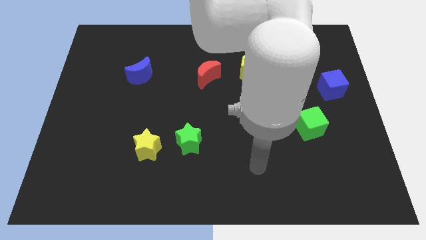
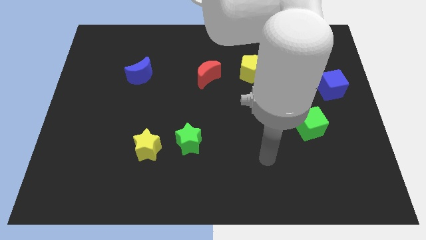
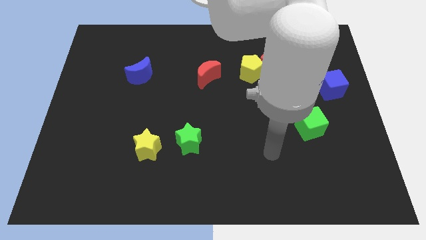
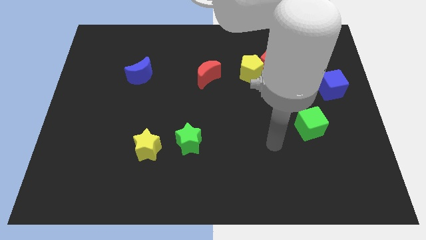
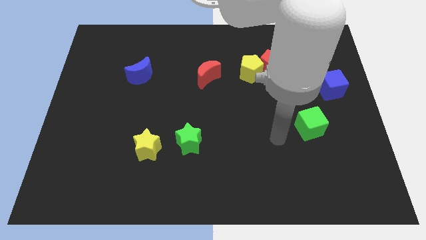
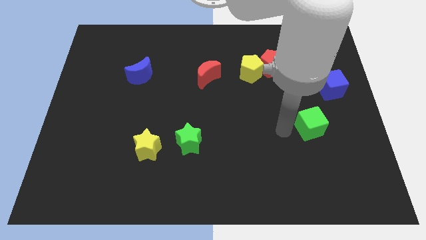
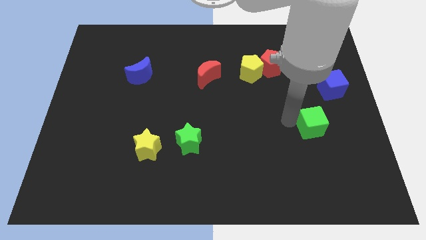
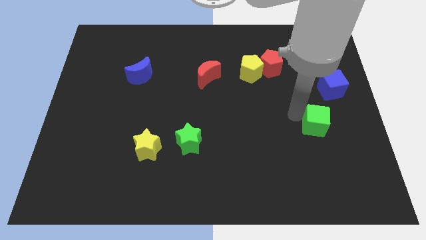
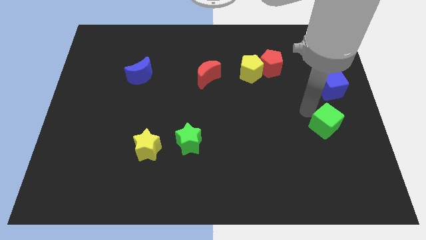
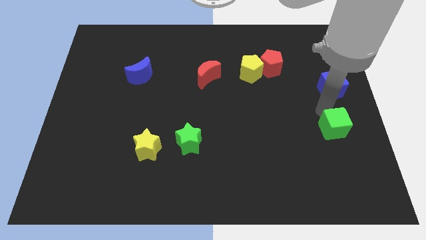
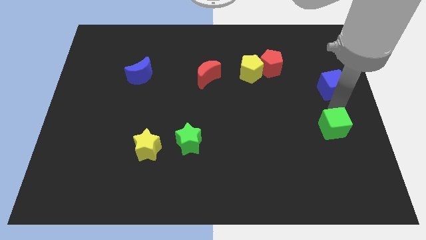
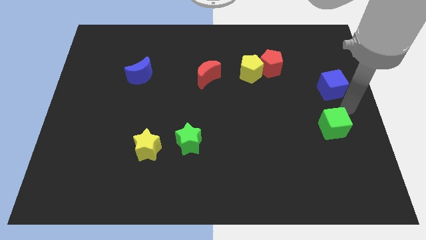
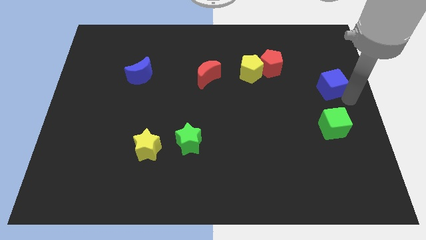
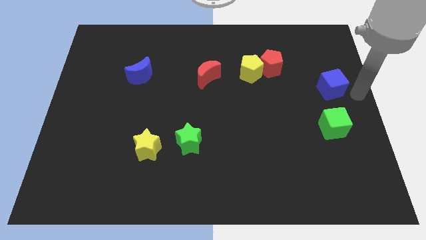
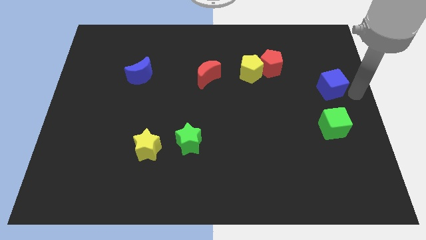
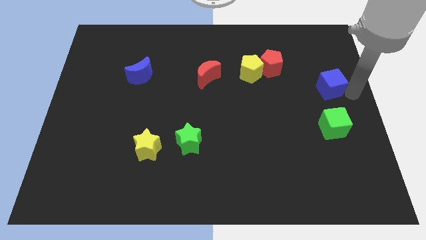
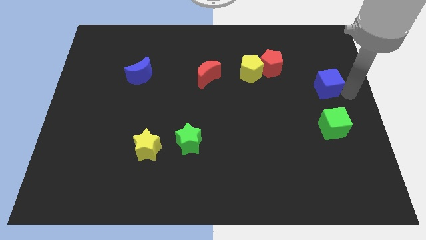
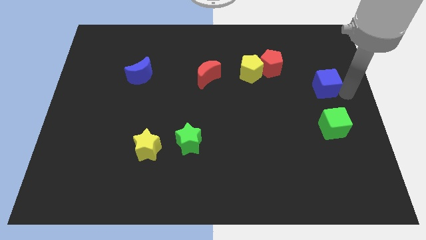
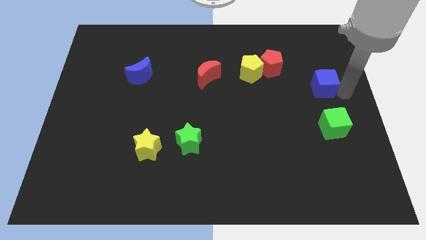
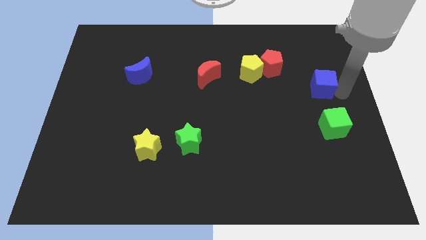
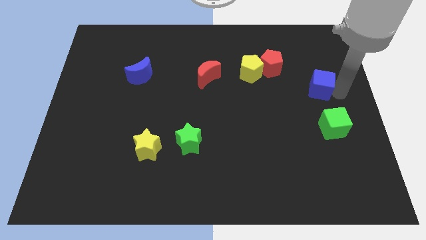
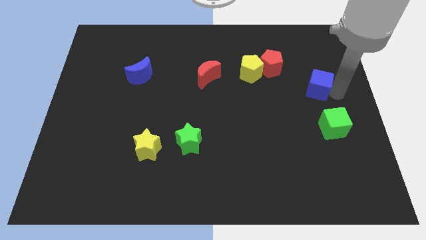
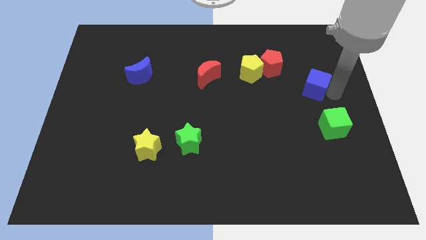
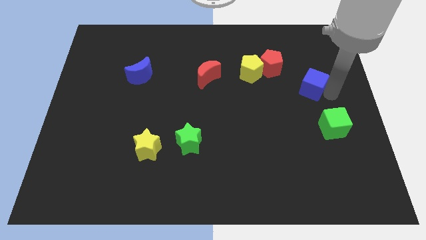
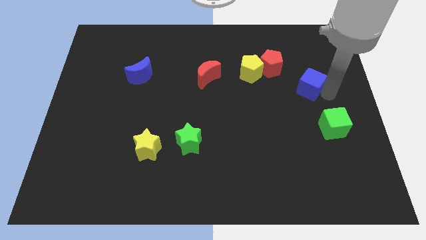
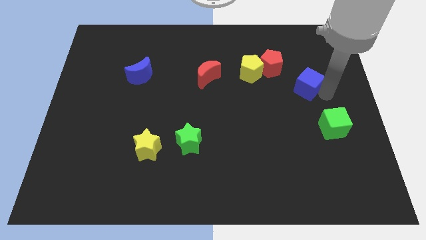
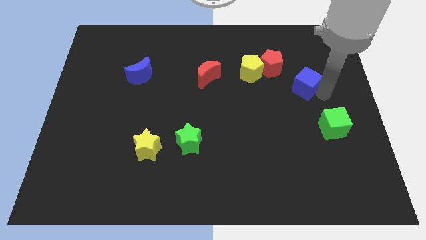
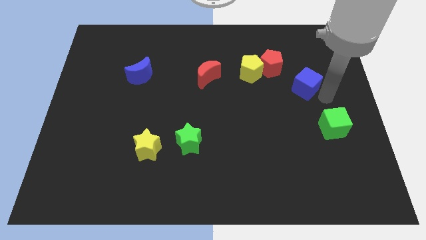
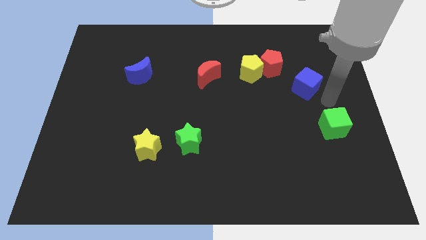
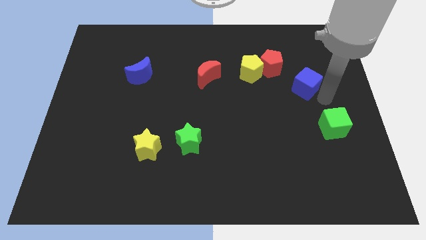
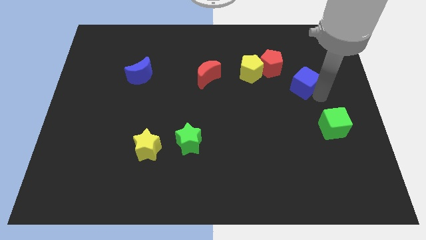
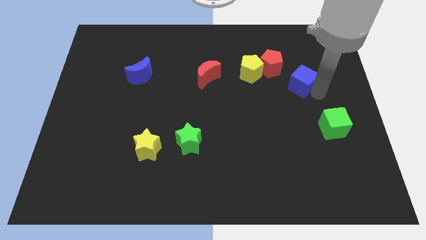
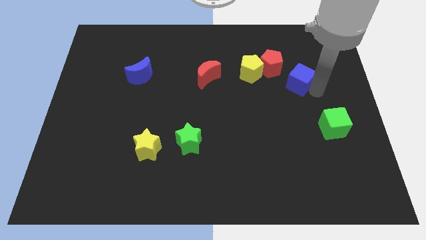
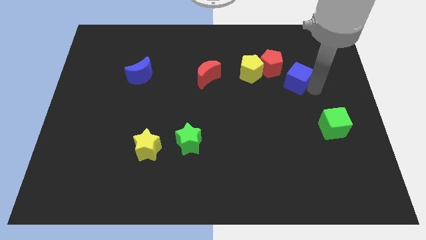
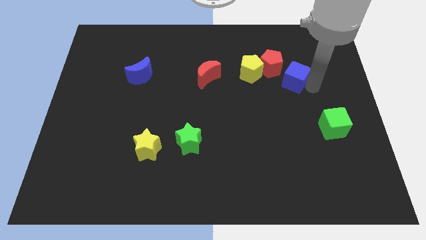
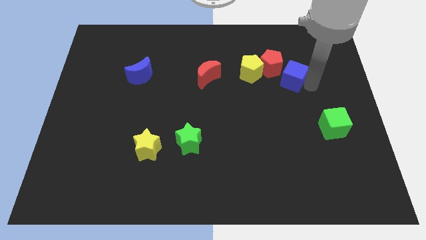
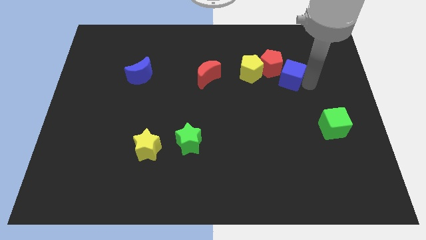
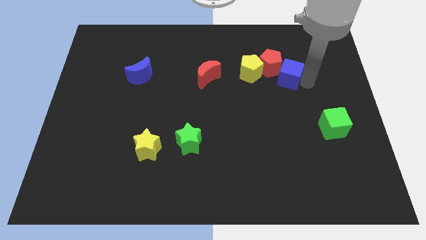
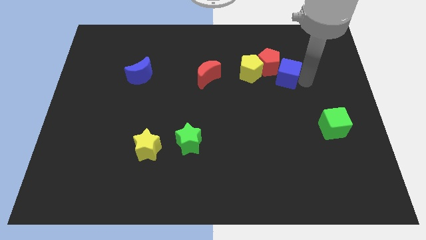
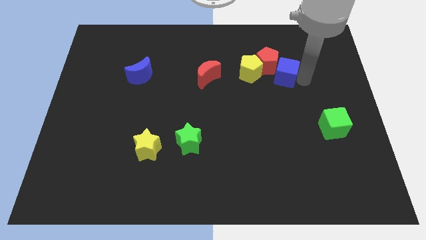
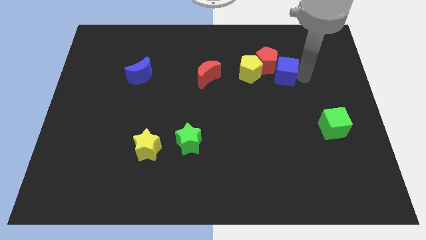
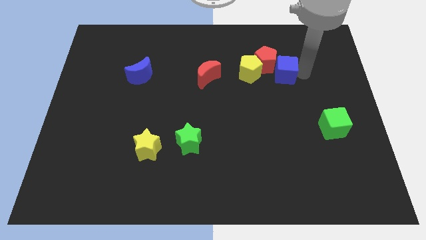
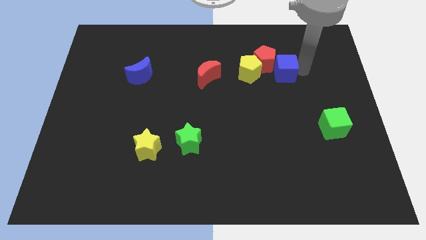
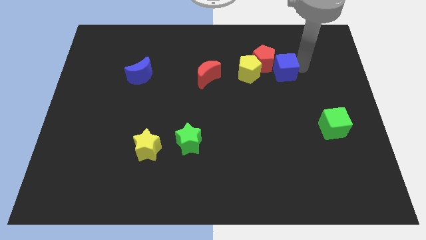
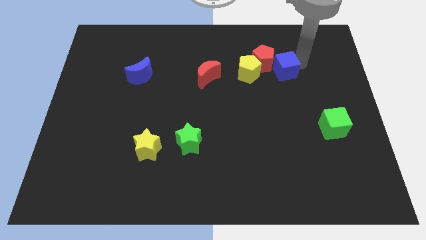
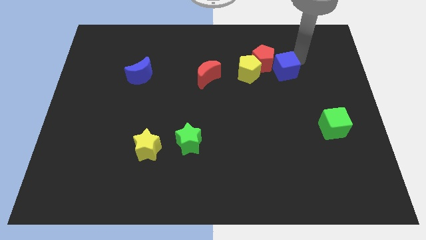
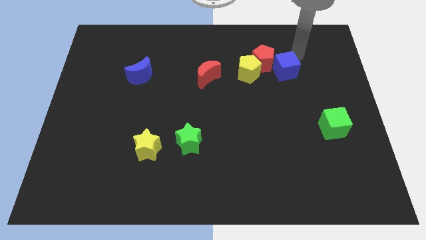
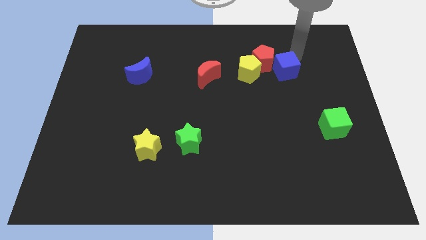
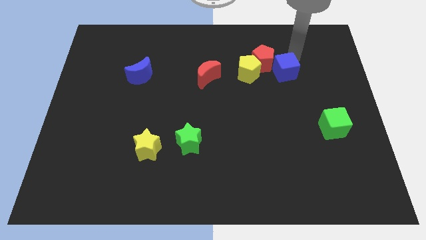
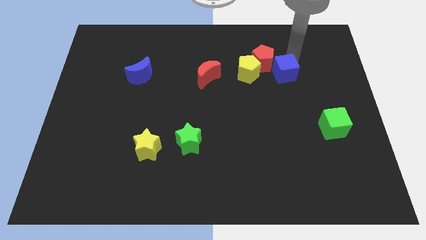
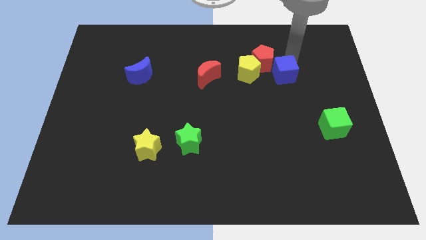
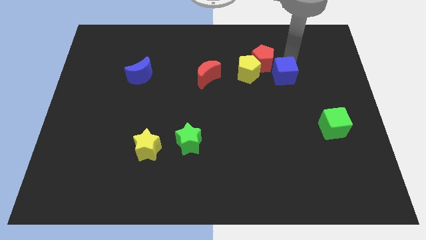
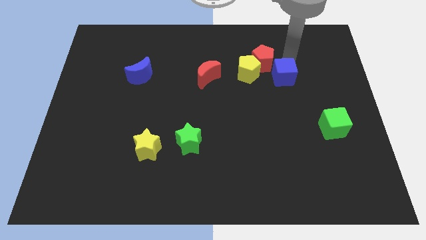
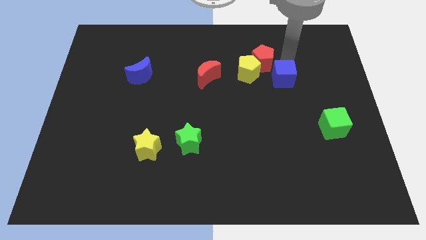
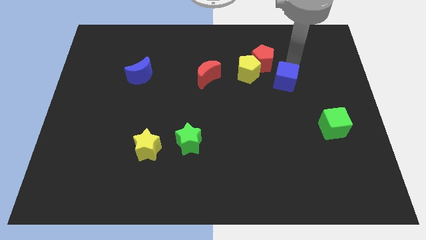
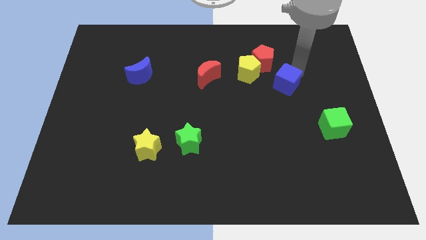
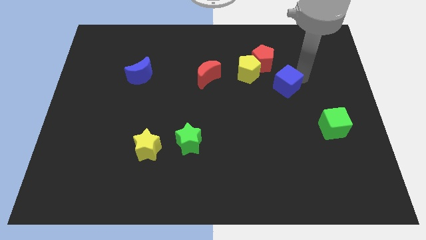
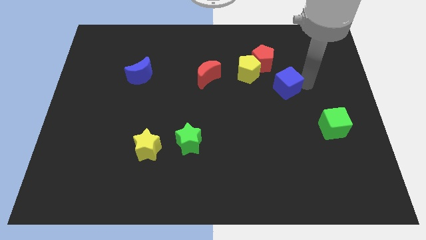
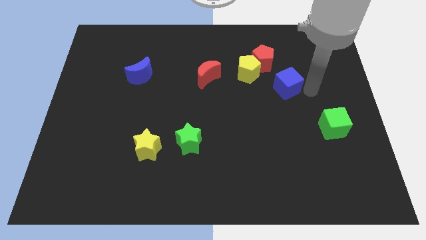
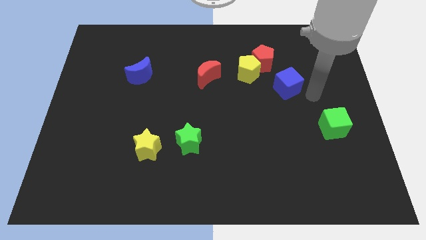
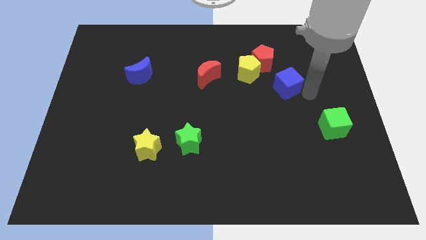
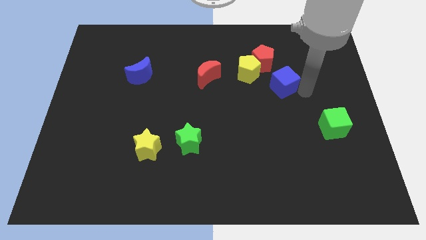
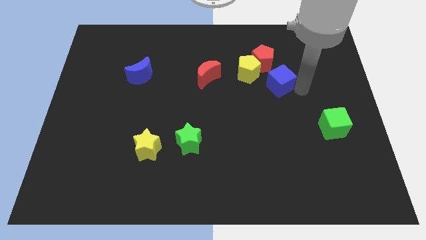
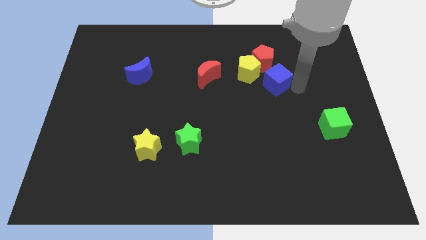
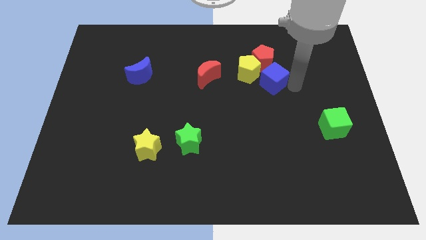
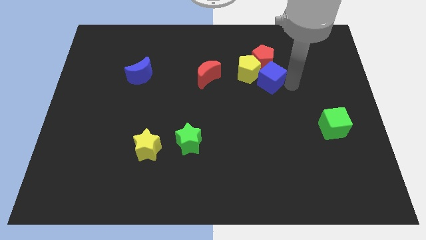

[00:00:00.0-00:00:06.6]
move the blue cube towards the yellow pentagon

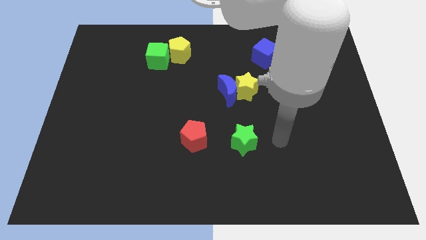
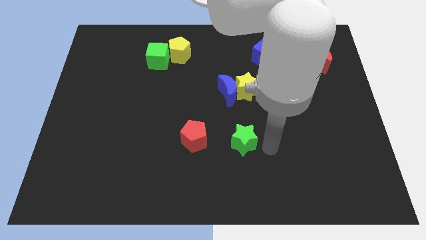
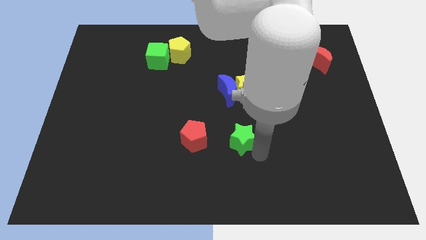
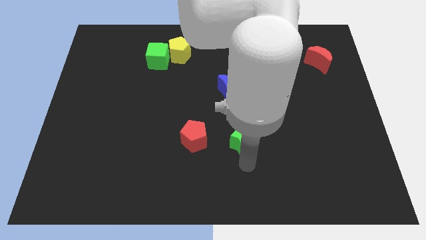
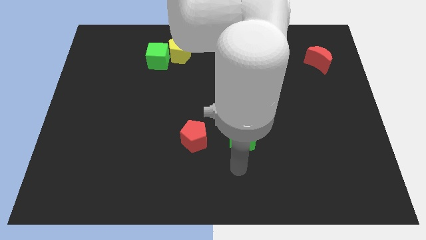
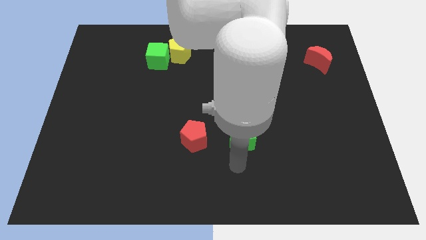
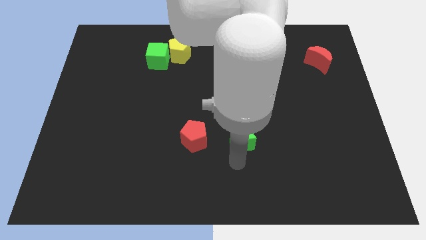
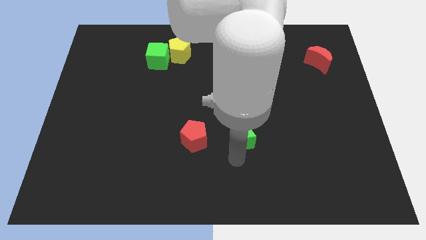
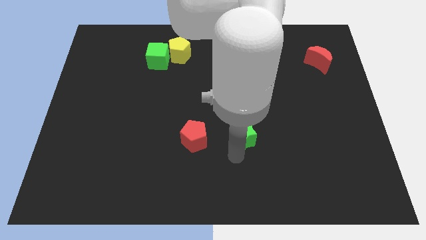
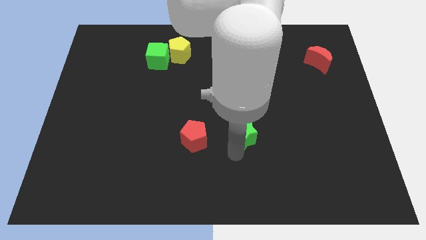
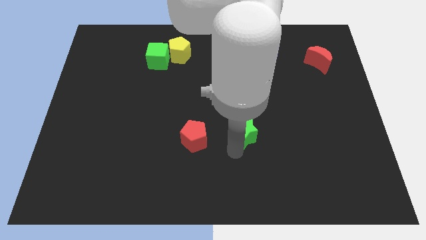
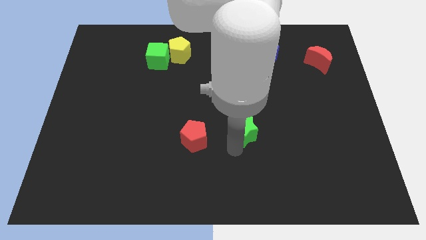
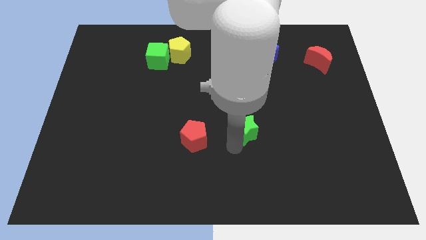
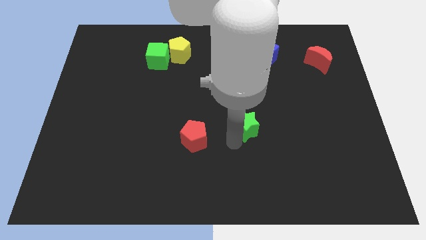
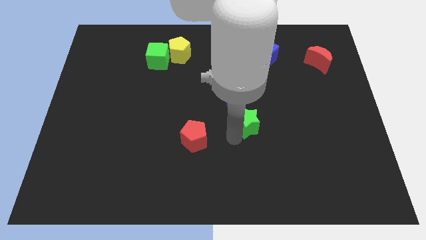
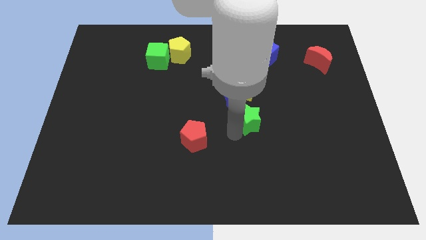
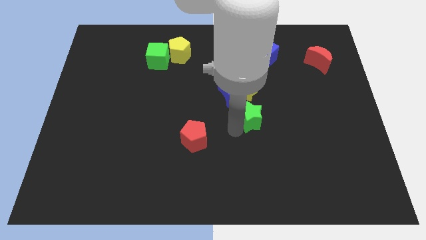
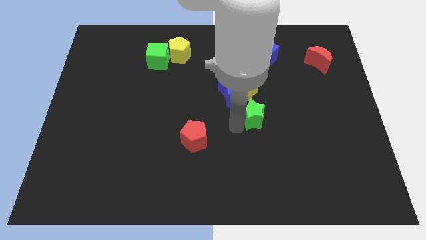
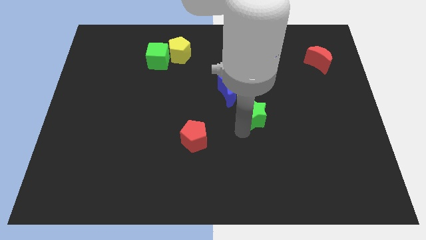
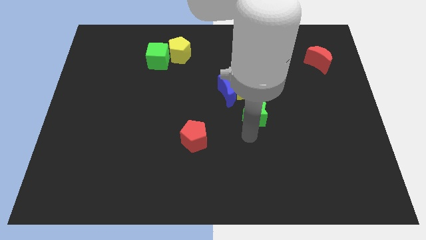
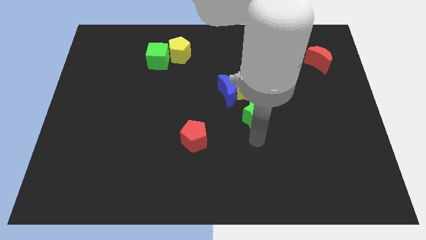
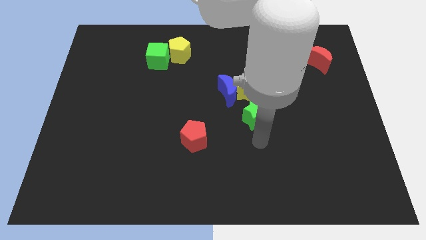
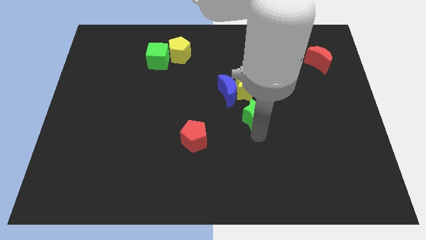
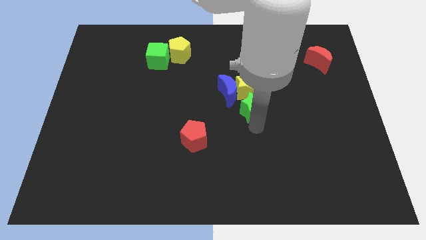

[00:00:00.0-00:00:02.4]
push the green star to the yellow star
